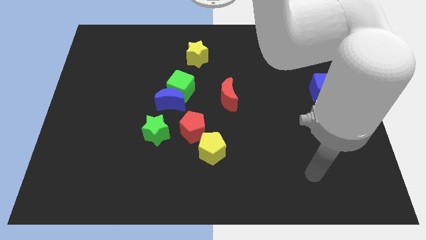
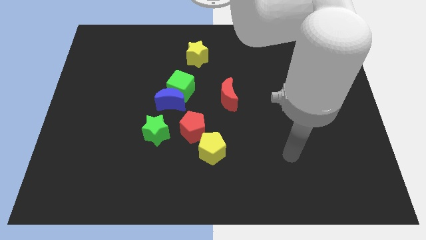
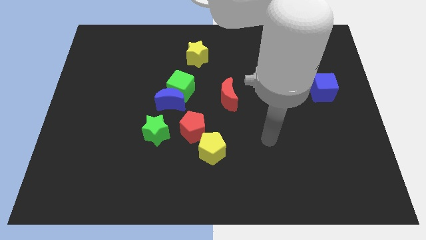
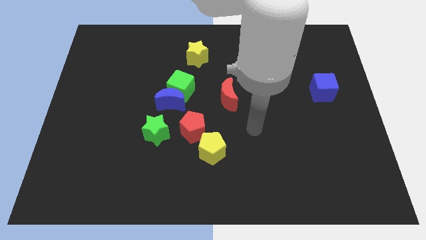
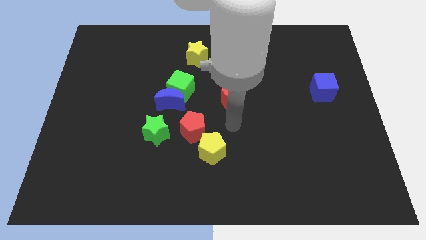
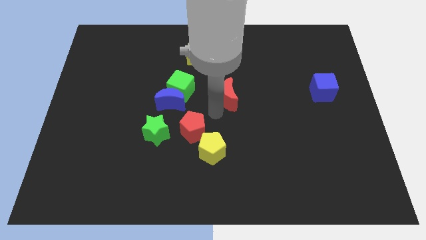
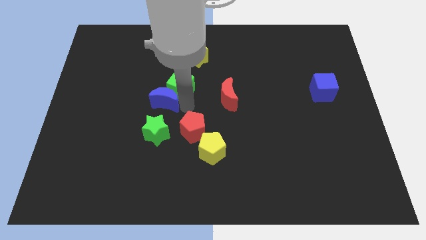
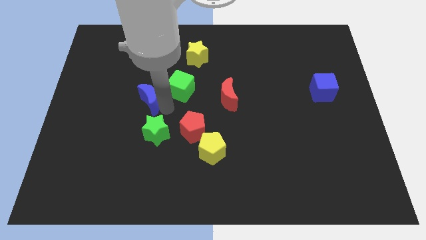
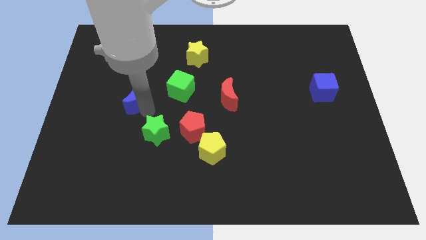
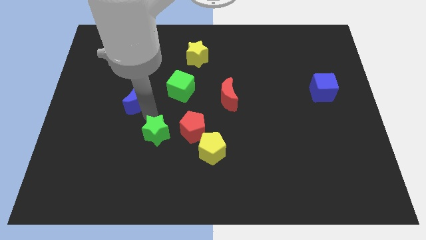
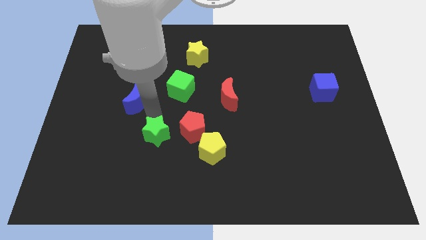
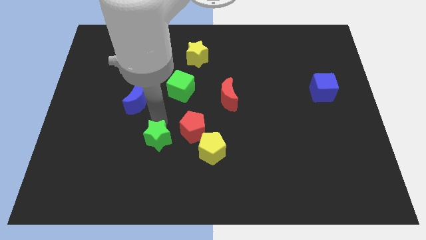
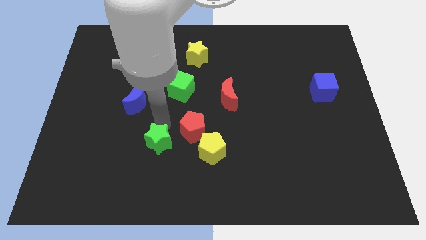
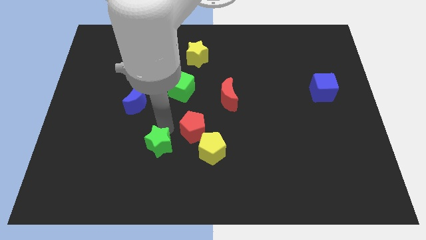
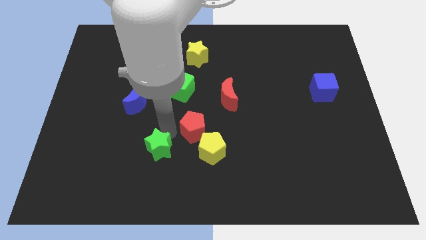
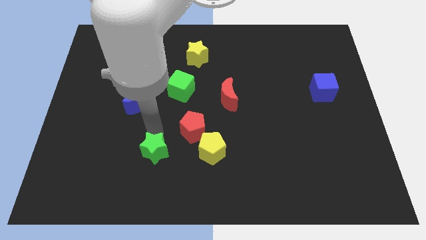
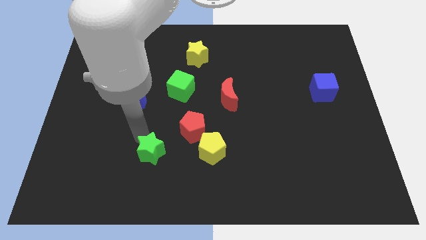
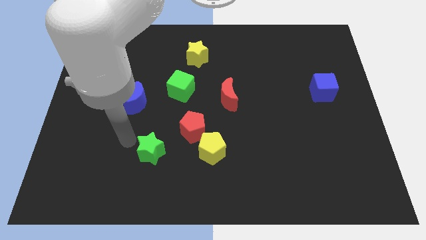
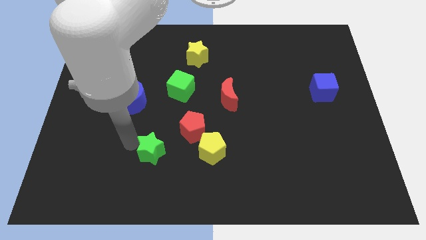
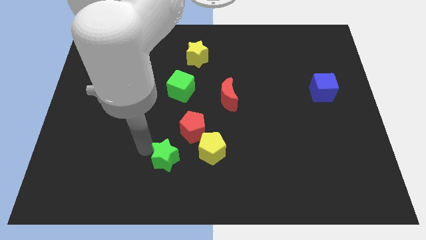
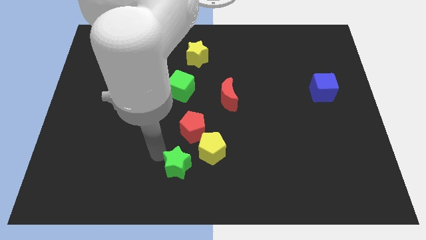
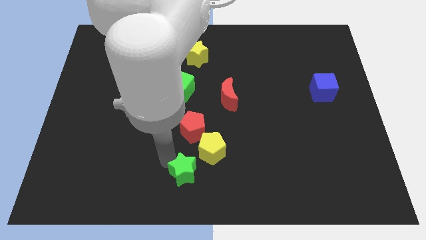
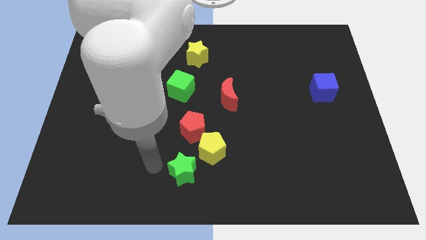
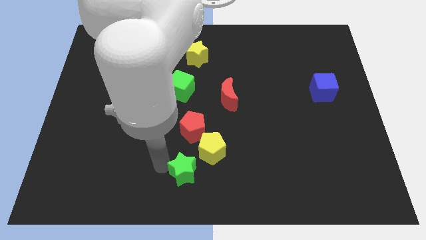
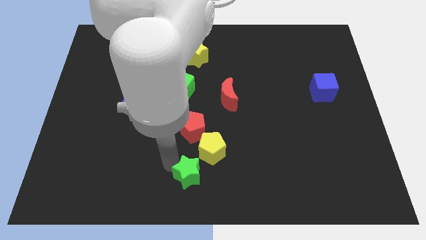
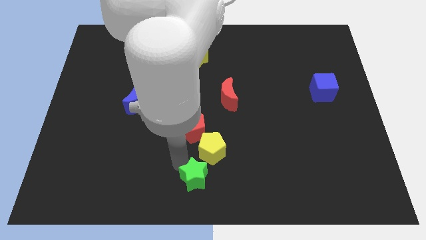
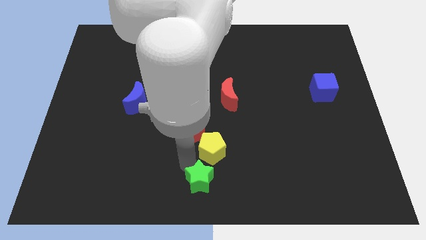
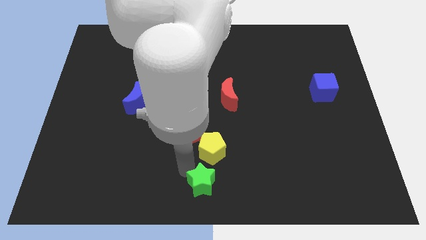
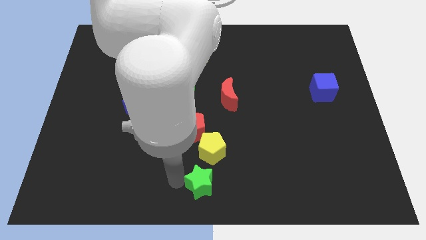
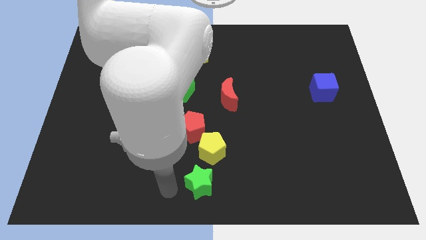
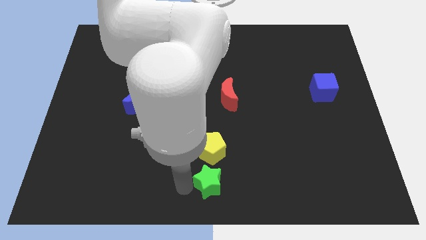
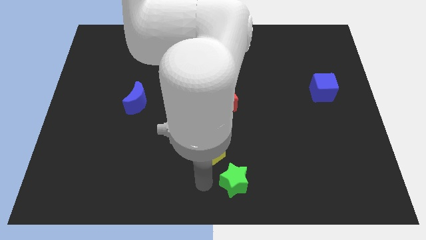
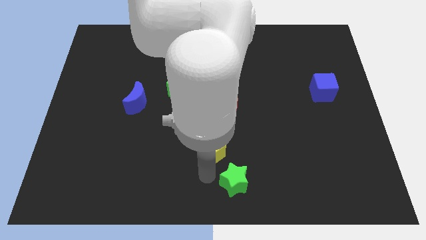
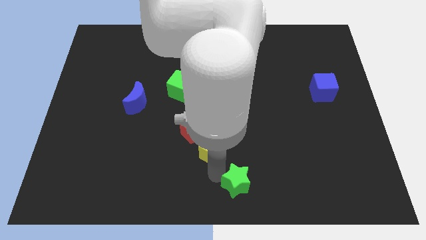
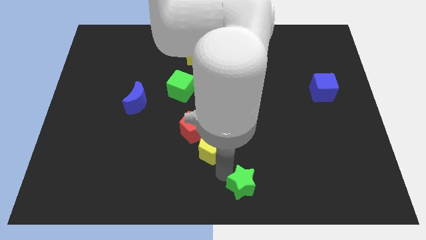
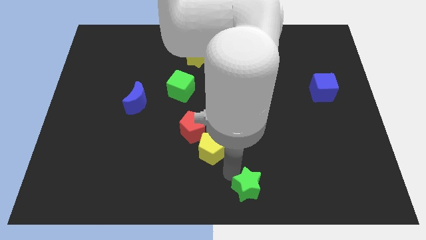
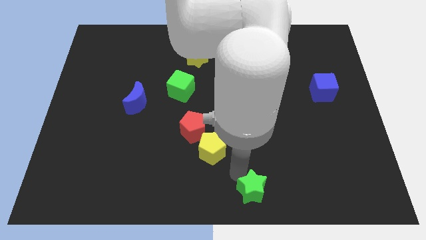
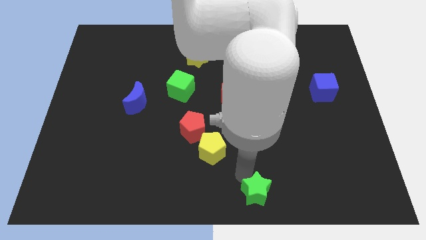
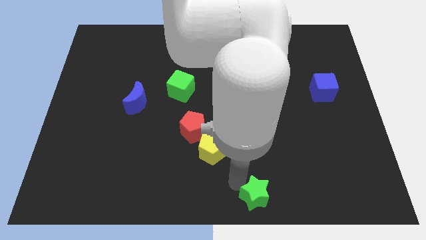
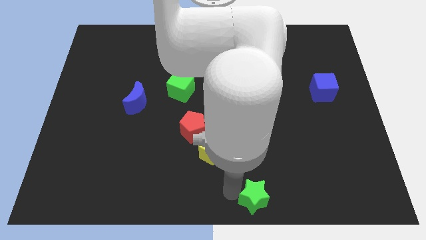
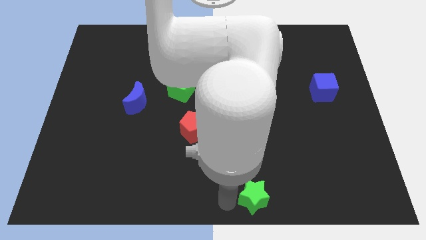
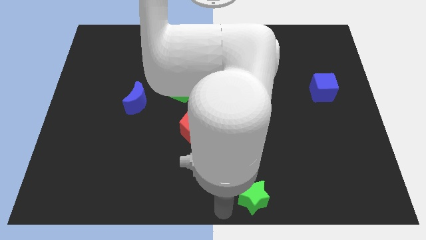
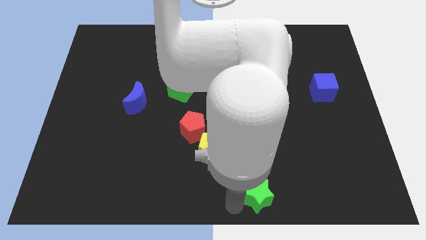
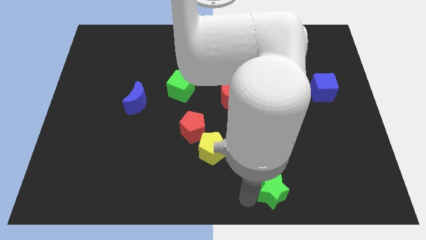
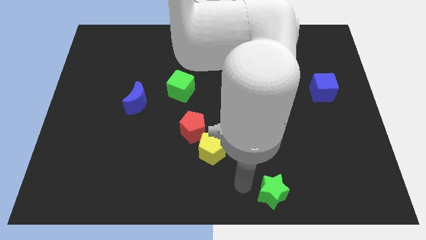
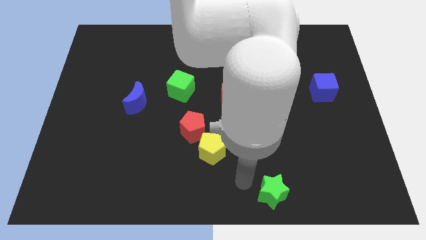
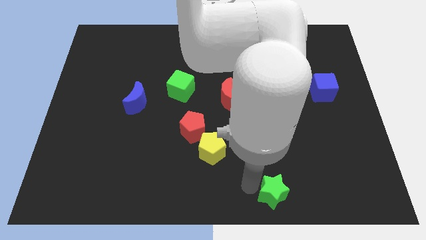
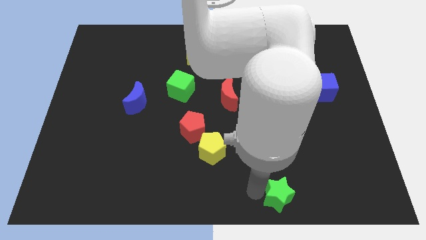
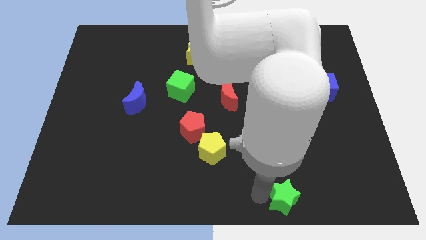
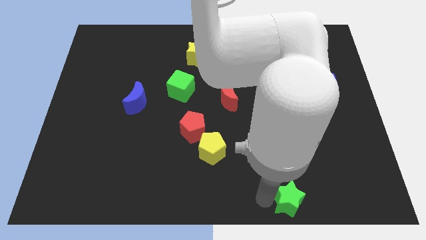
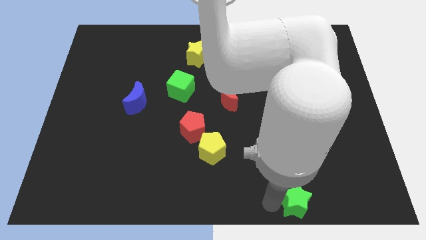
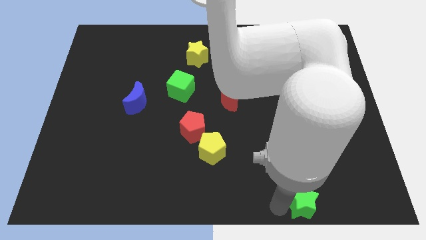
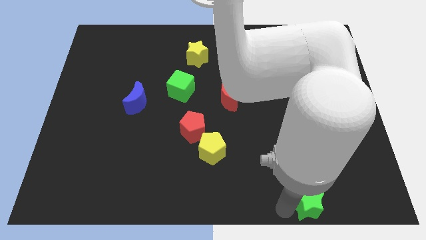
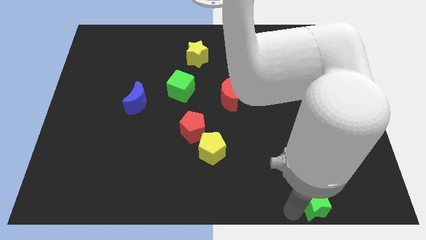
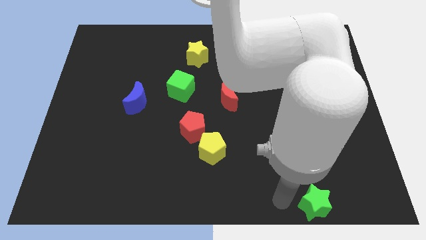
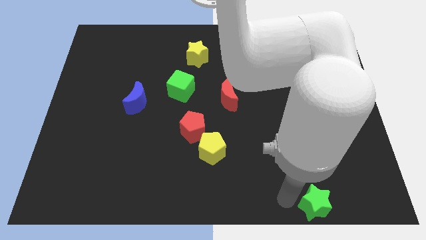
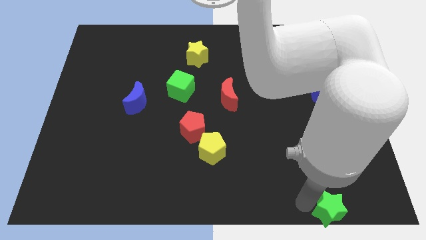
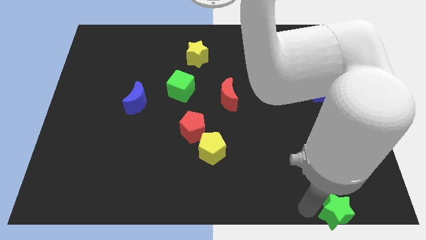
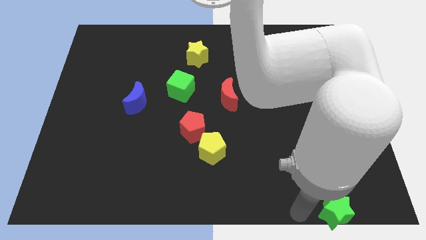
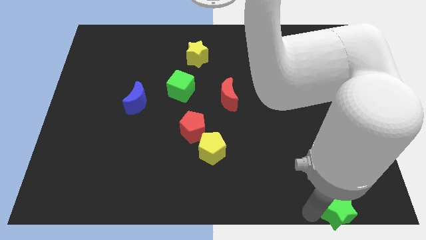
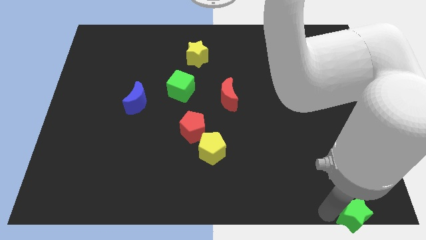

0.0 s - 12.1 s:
put the green star to the bottom right corner
